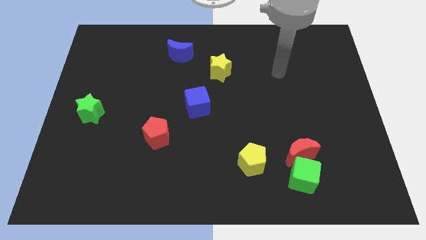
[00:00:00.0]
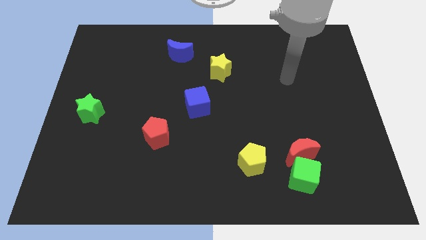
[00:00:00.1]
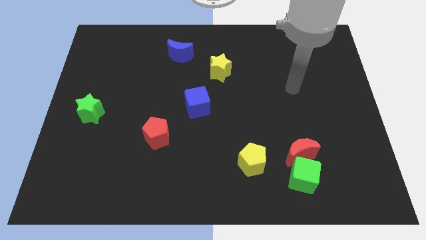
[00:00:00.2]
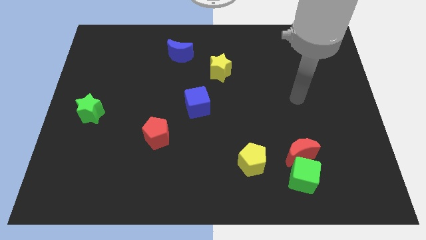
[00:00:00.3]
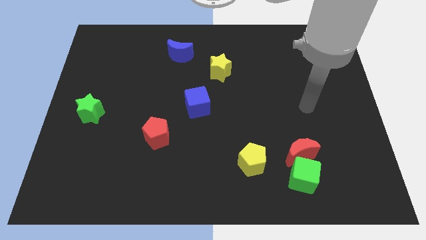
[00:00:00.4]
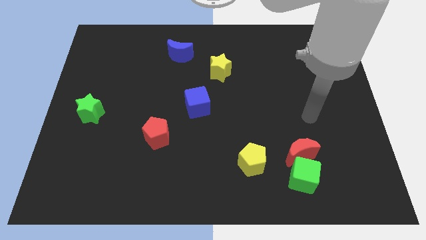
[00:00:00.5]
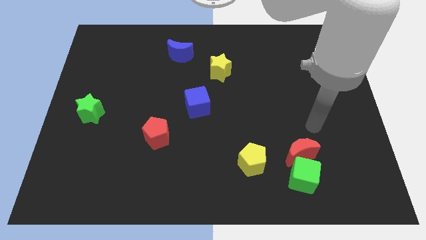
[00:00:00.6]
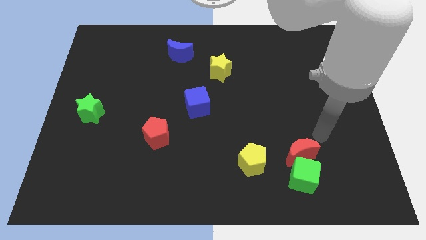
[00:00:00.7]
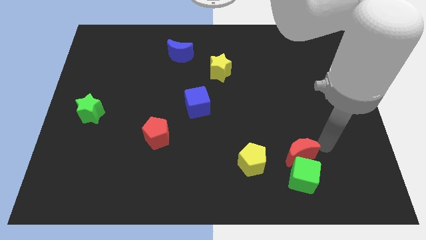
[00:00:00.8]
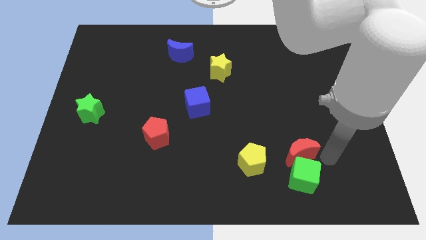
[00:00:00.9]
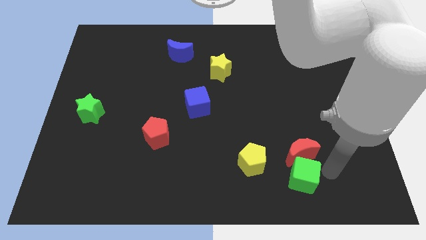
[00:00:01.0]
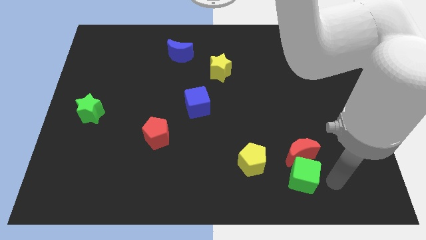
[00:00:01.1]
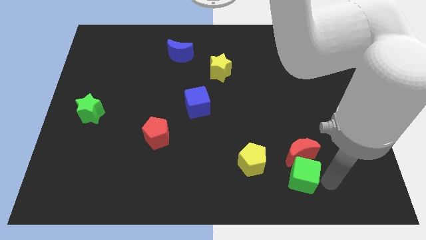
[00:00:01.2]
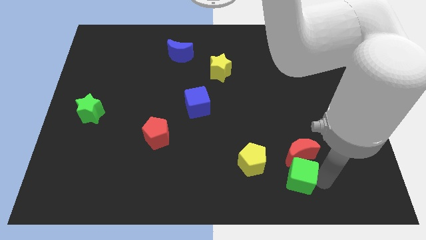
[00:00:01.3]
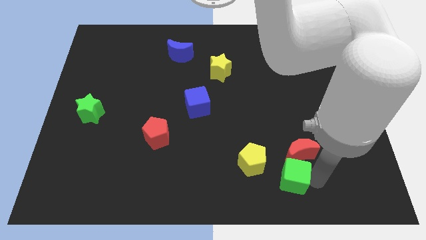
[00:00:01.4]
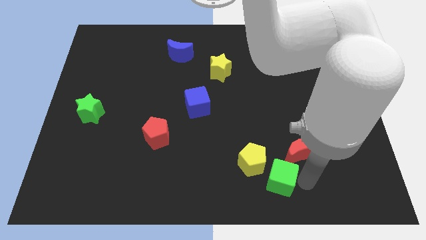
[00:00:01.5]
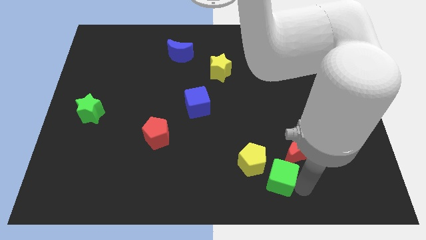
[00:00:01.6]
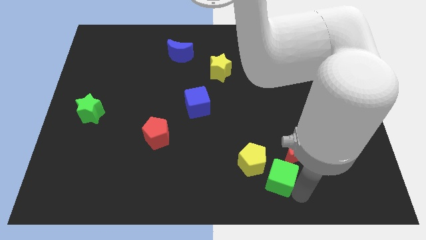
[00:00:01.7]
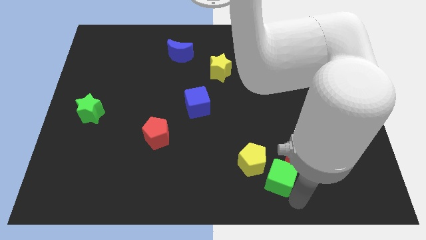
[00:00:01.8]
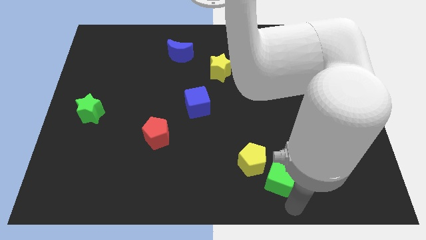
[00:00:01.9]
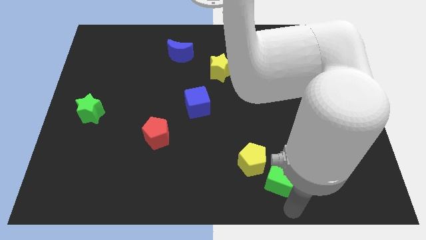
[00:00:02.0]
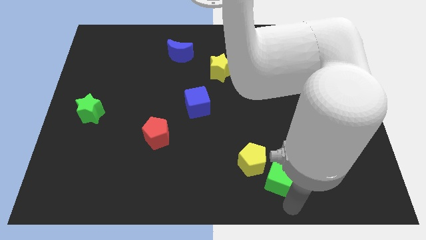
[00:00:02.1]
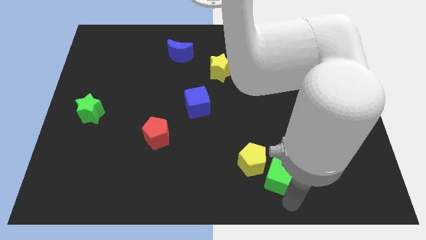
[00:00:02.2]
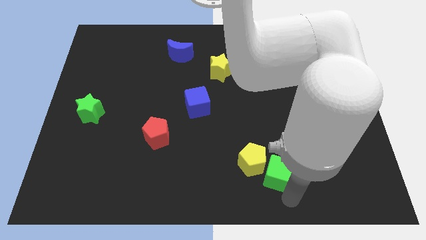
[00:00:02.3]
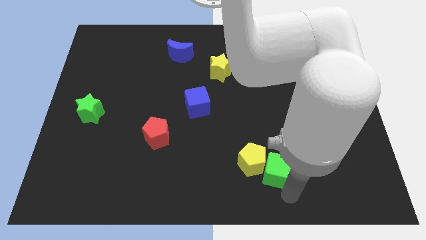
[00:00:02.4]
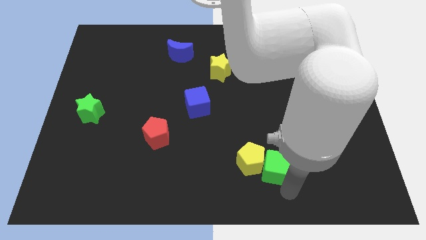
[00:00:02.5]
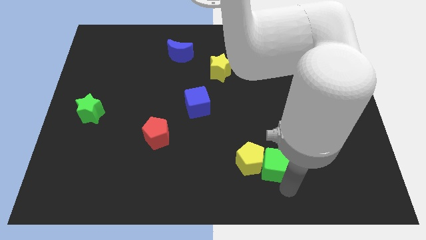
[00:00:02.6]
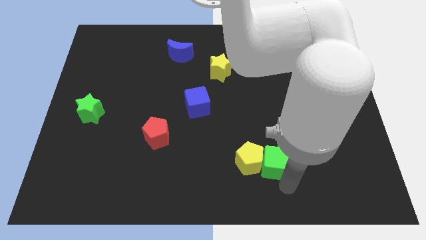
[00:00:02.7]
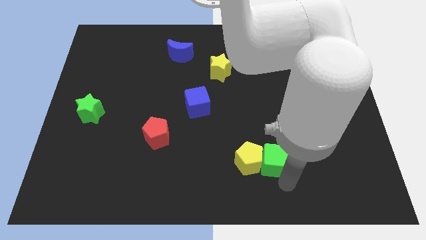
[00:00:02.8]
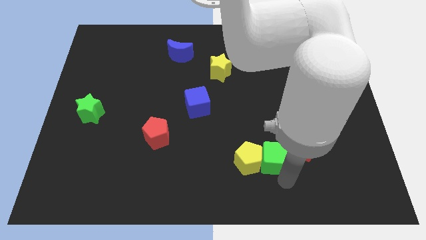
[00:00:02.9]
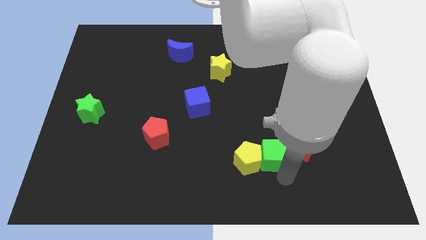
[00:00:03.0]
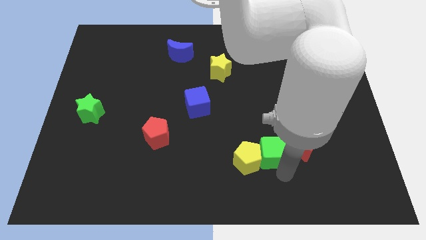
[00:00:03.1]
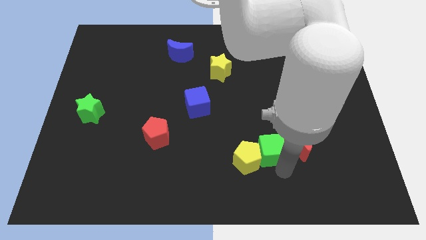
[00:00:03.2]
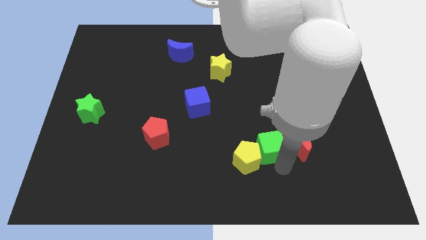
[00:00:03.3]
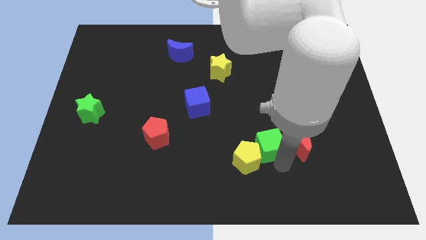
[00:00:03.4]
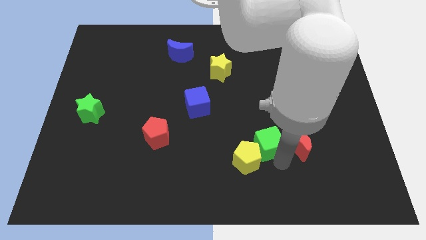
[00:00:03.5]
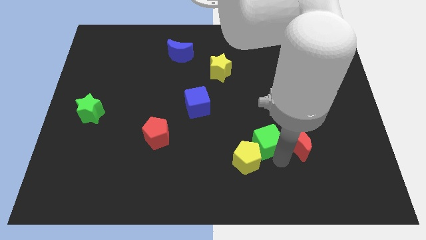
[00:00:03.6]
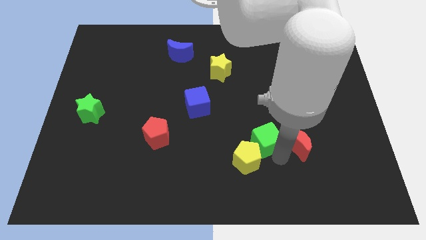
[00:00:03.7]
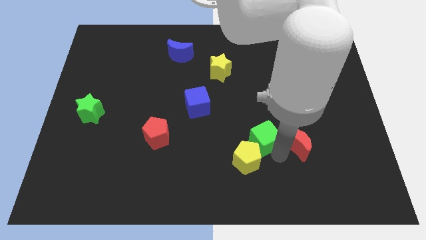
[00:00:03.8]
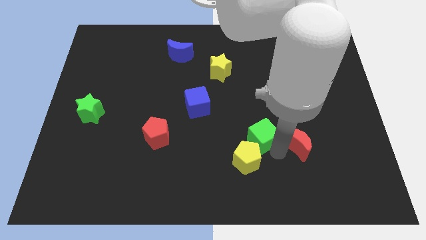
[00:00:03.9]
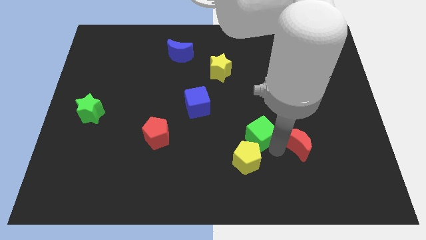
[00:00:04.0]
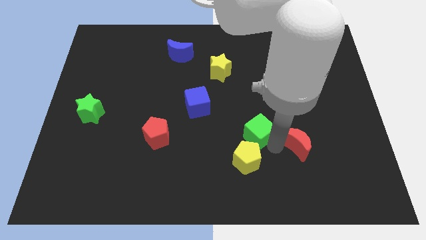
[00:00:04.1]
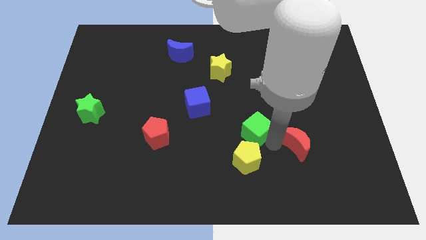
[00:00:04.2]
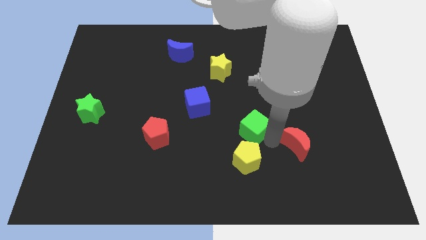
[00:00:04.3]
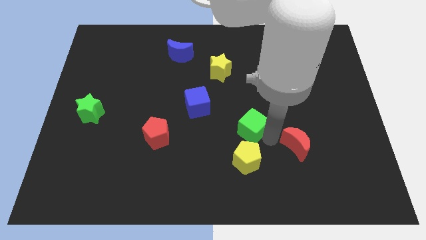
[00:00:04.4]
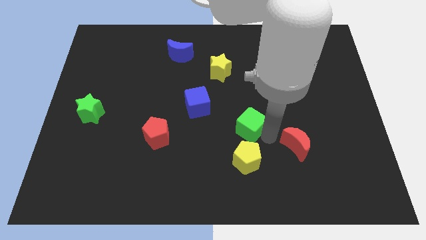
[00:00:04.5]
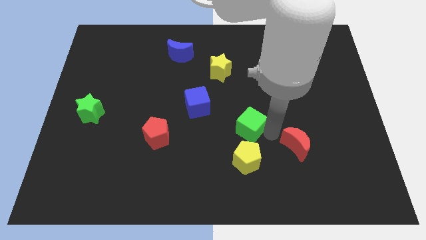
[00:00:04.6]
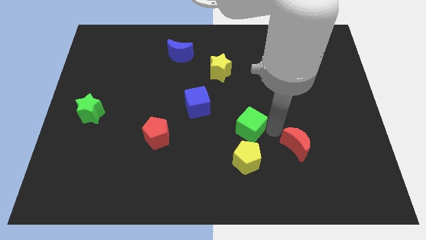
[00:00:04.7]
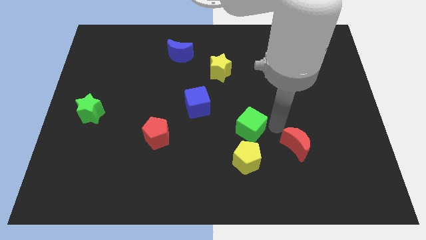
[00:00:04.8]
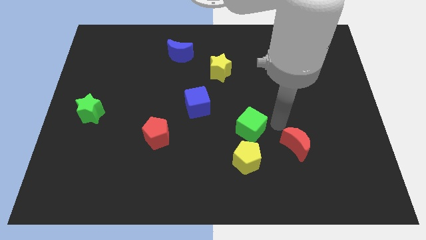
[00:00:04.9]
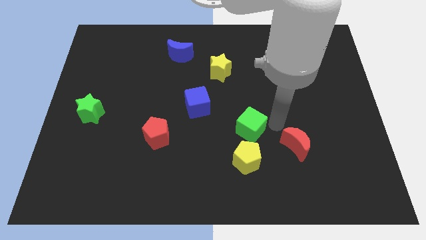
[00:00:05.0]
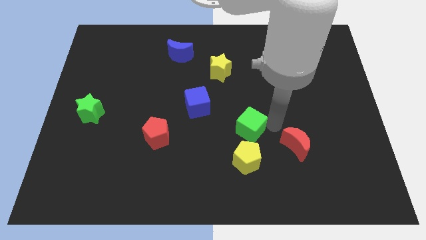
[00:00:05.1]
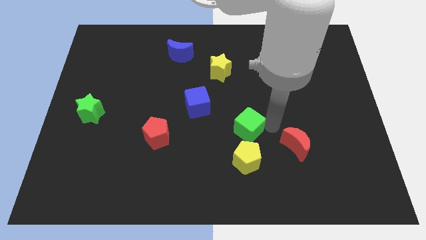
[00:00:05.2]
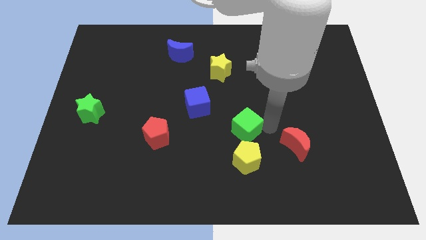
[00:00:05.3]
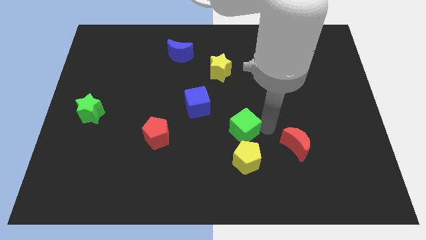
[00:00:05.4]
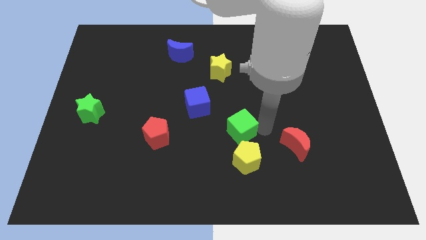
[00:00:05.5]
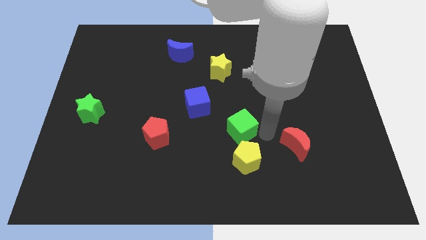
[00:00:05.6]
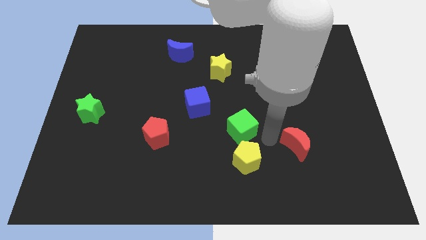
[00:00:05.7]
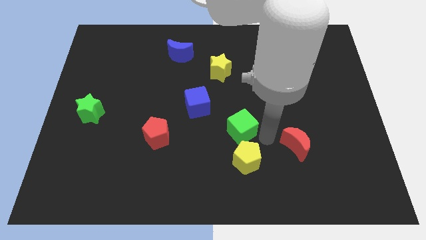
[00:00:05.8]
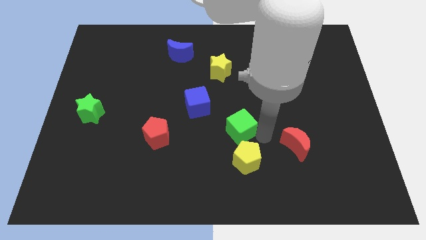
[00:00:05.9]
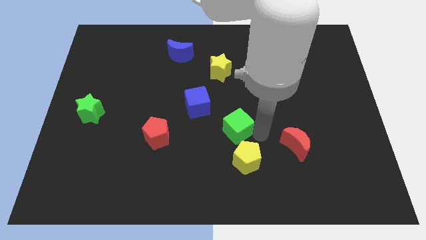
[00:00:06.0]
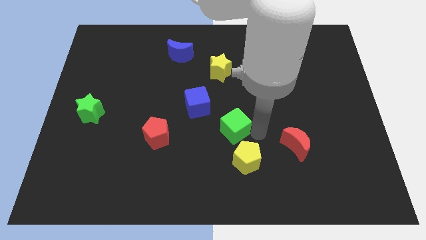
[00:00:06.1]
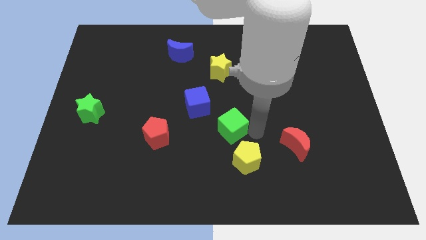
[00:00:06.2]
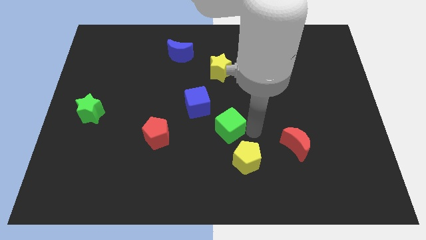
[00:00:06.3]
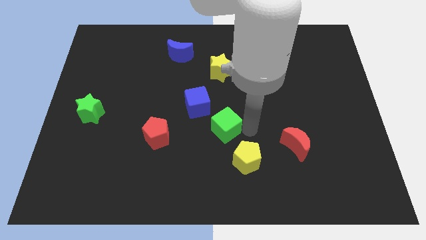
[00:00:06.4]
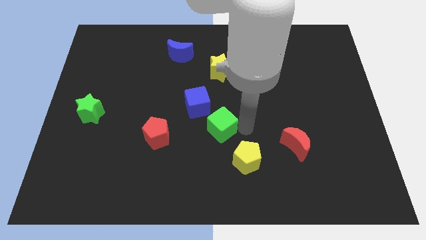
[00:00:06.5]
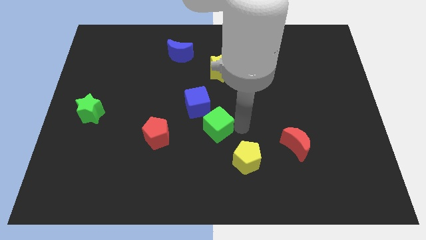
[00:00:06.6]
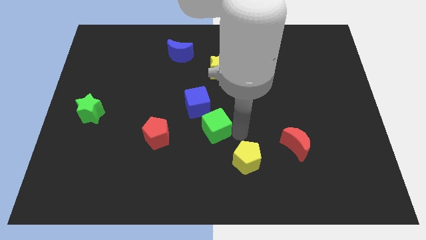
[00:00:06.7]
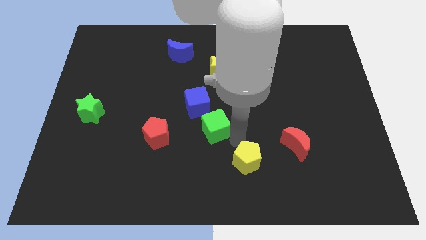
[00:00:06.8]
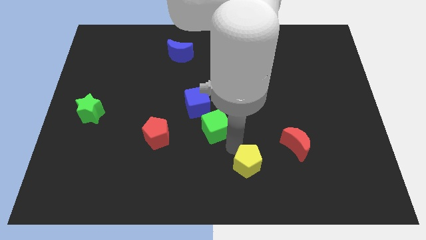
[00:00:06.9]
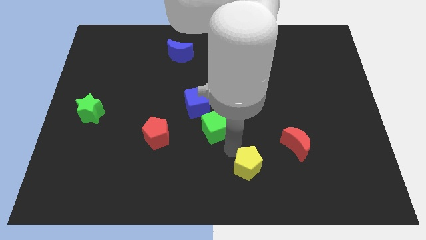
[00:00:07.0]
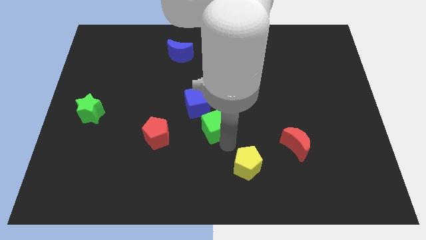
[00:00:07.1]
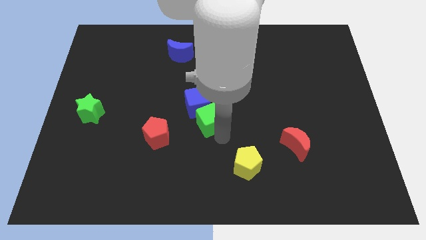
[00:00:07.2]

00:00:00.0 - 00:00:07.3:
move the green cube next to the blue cube
